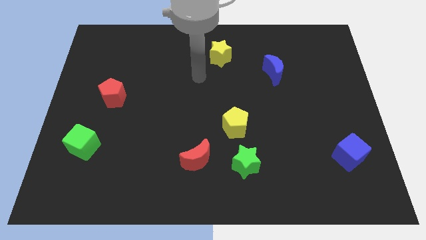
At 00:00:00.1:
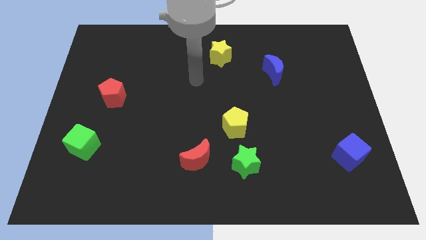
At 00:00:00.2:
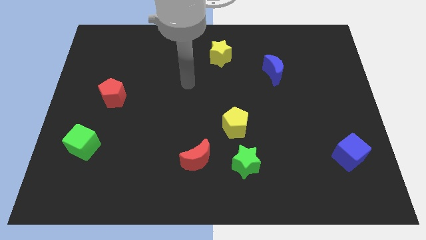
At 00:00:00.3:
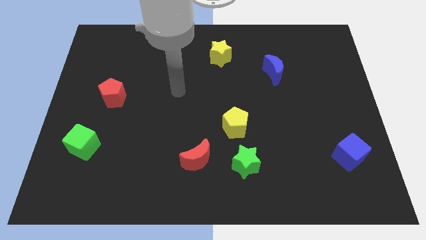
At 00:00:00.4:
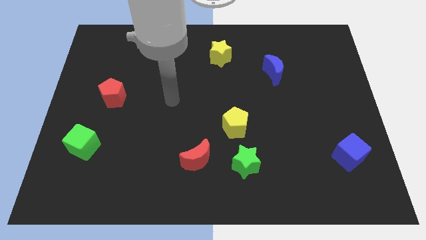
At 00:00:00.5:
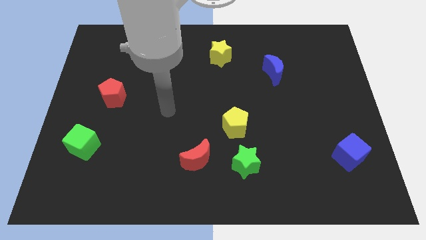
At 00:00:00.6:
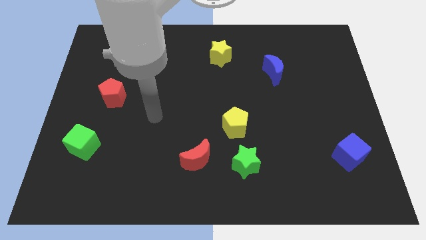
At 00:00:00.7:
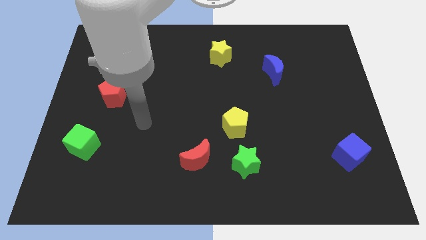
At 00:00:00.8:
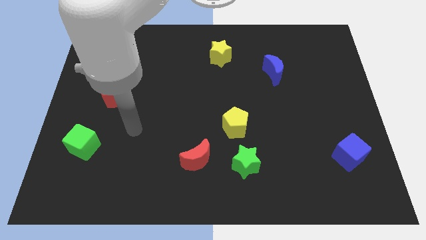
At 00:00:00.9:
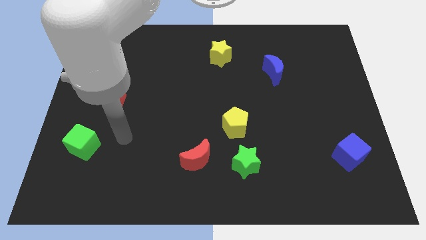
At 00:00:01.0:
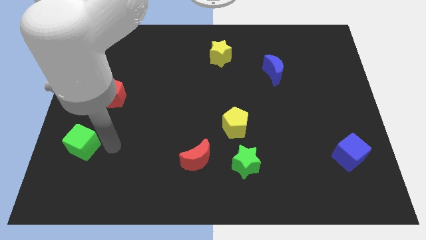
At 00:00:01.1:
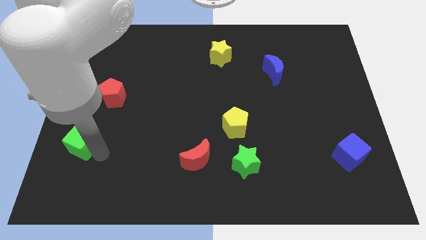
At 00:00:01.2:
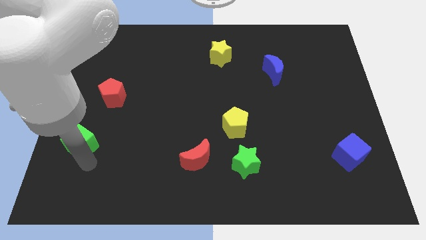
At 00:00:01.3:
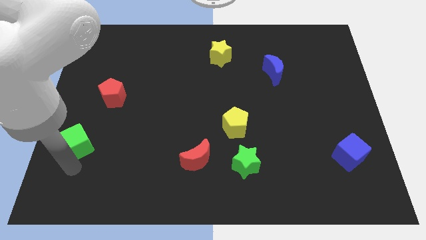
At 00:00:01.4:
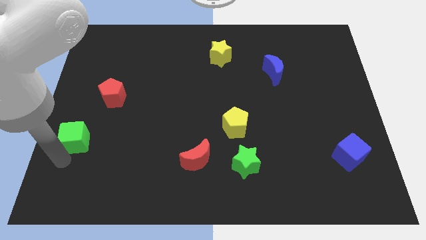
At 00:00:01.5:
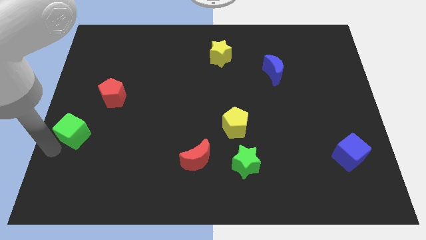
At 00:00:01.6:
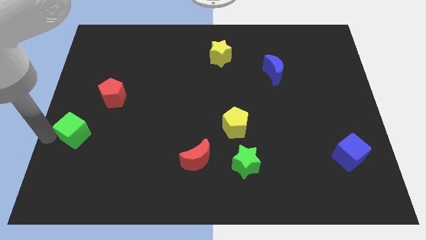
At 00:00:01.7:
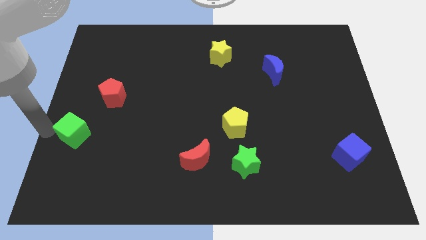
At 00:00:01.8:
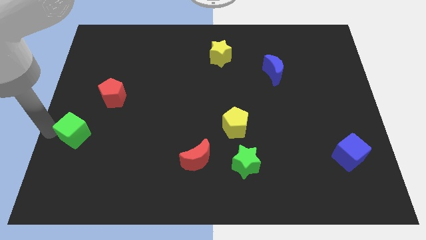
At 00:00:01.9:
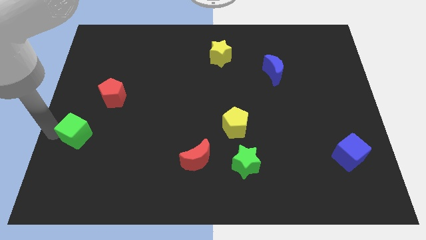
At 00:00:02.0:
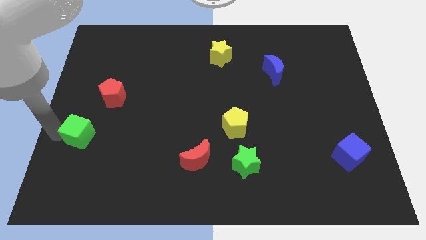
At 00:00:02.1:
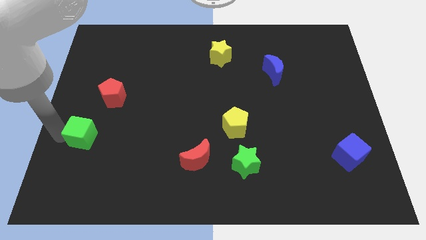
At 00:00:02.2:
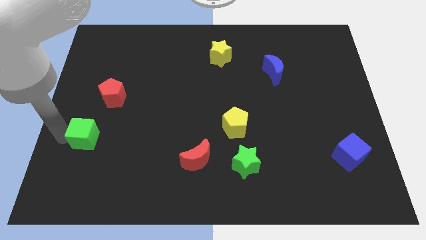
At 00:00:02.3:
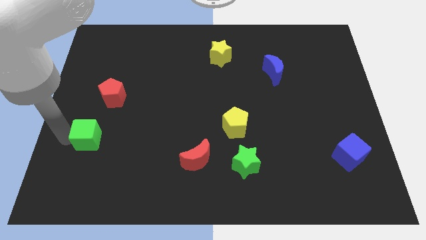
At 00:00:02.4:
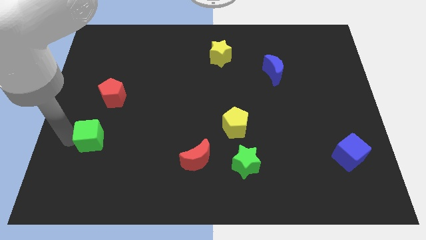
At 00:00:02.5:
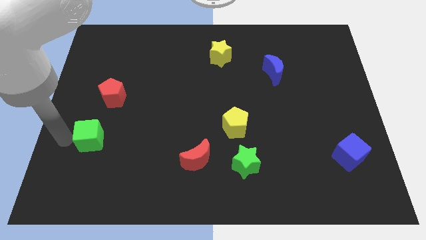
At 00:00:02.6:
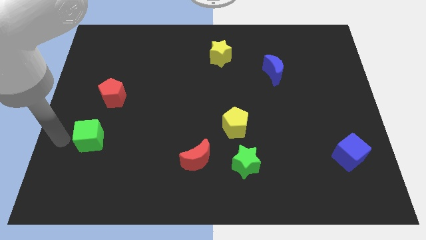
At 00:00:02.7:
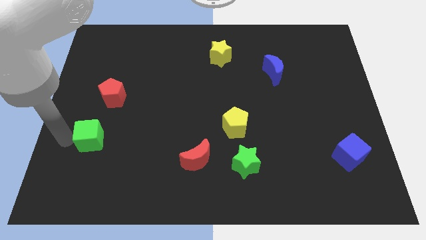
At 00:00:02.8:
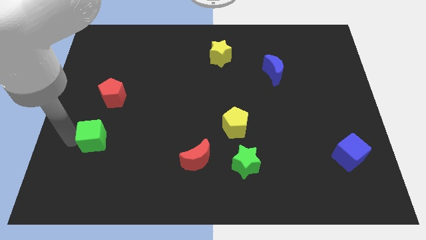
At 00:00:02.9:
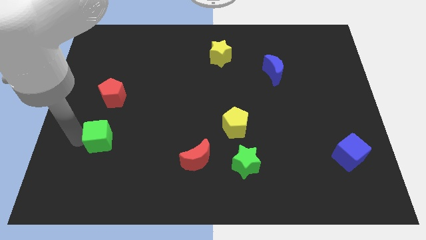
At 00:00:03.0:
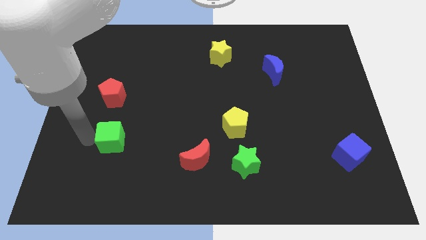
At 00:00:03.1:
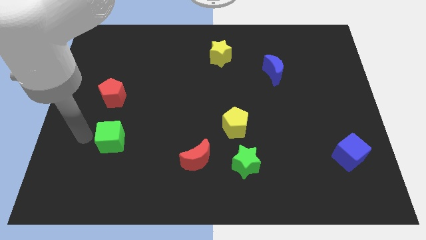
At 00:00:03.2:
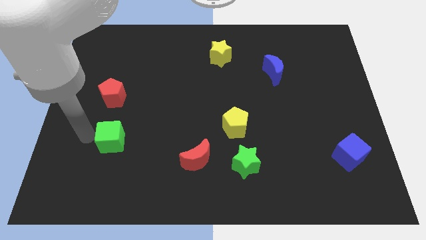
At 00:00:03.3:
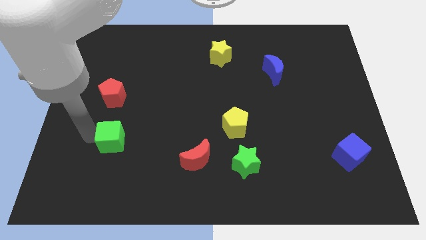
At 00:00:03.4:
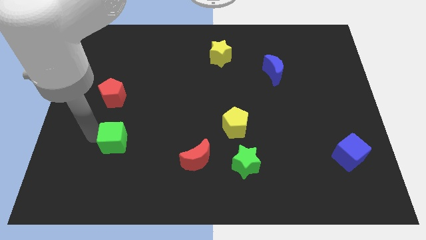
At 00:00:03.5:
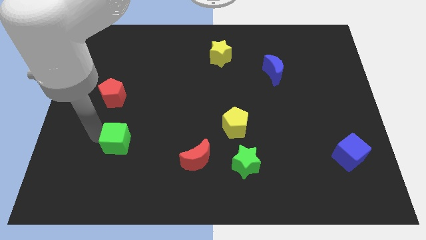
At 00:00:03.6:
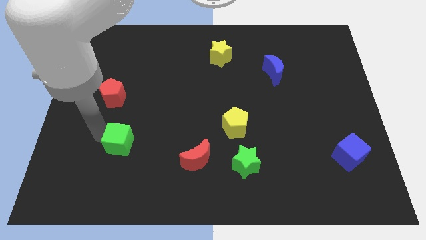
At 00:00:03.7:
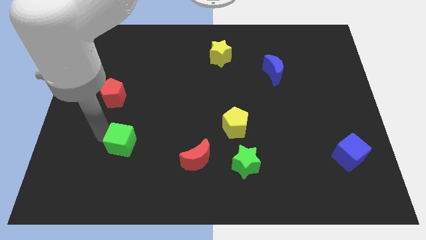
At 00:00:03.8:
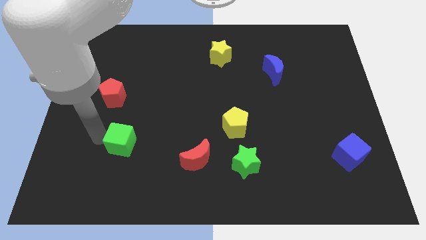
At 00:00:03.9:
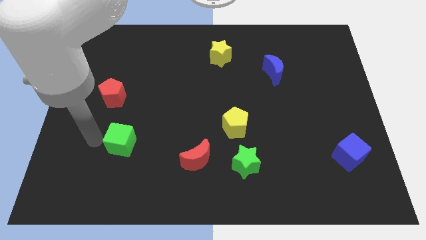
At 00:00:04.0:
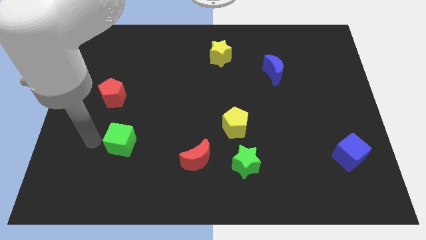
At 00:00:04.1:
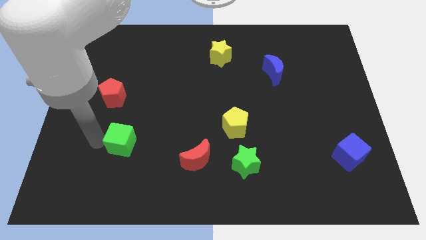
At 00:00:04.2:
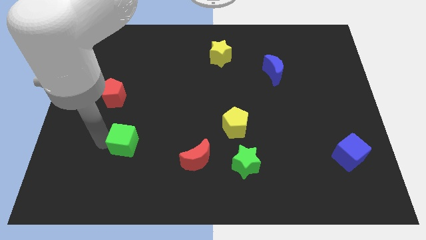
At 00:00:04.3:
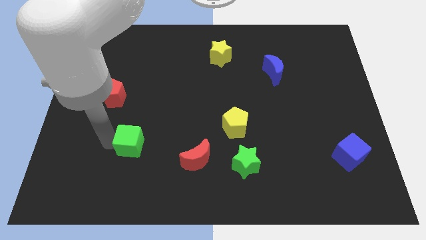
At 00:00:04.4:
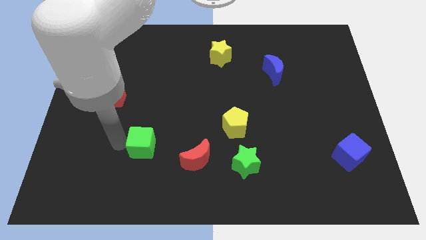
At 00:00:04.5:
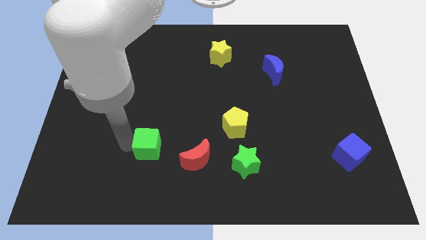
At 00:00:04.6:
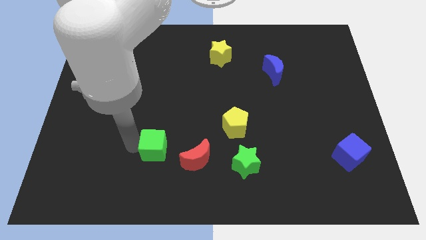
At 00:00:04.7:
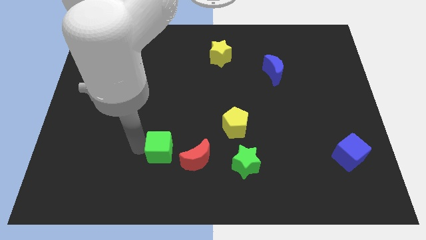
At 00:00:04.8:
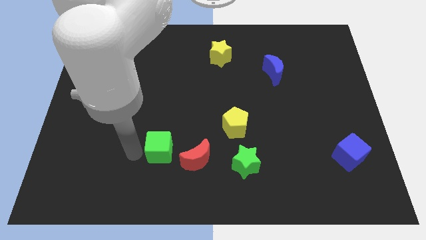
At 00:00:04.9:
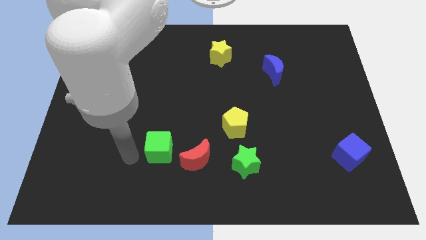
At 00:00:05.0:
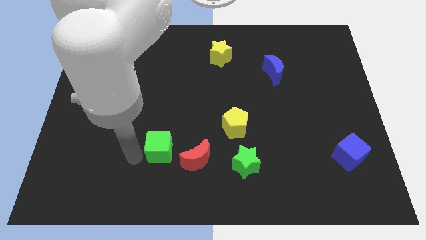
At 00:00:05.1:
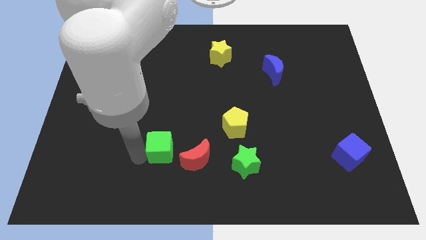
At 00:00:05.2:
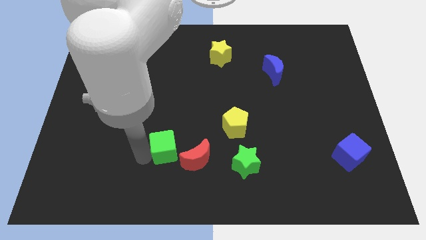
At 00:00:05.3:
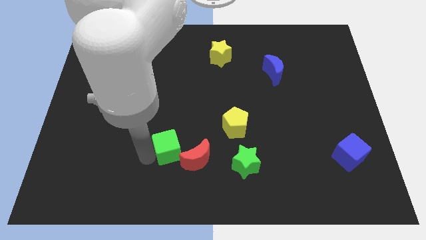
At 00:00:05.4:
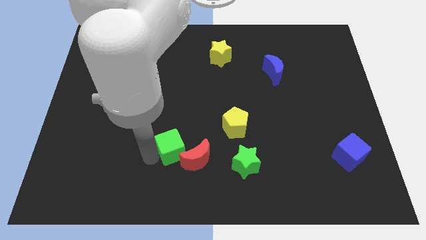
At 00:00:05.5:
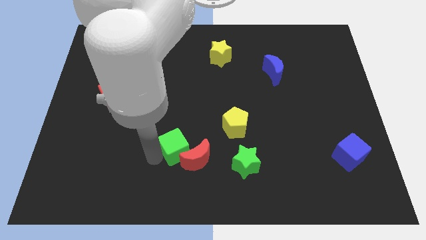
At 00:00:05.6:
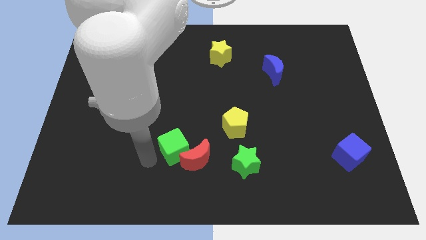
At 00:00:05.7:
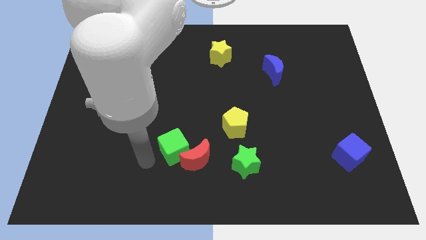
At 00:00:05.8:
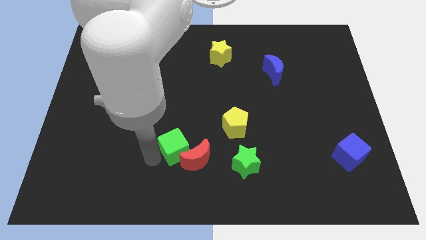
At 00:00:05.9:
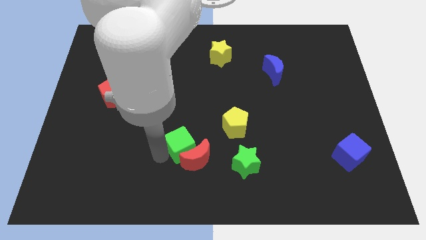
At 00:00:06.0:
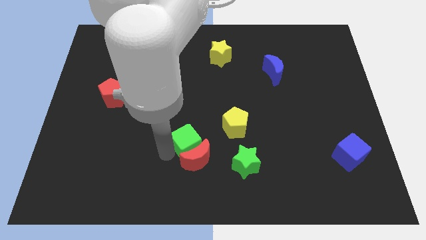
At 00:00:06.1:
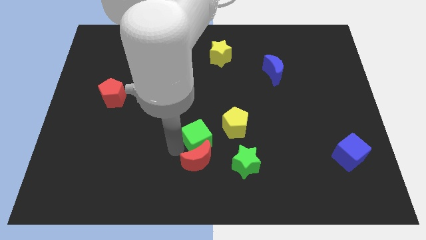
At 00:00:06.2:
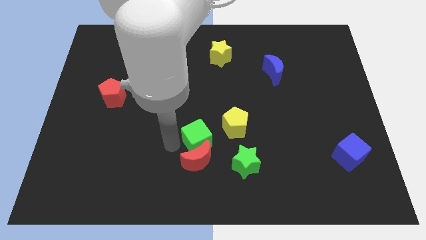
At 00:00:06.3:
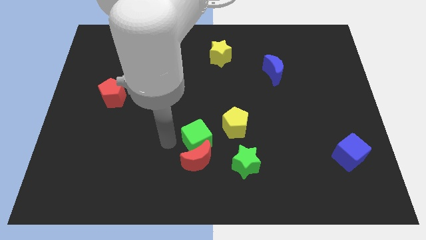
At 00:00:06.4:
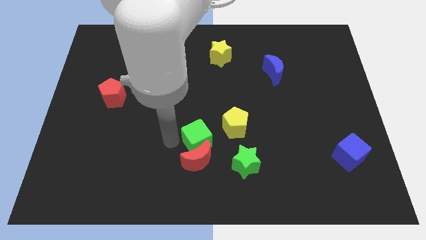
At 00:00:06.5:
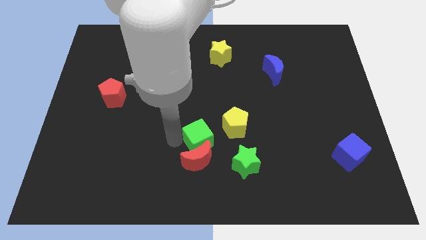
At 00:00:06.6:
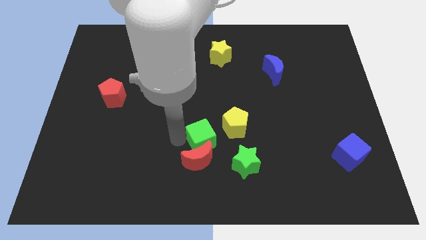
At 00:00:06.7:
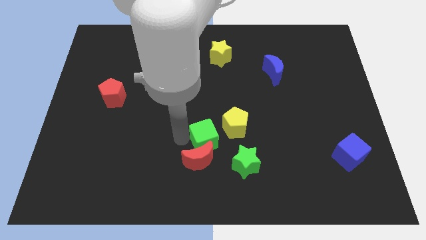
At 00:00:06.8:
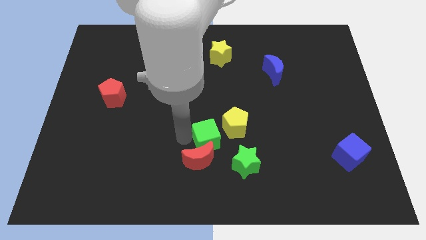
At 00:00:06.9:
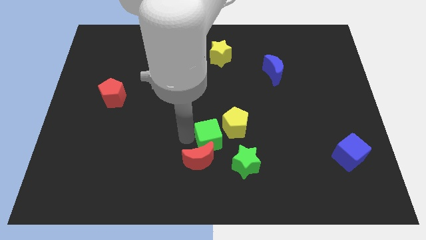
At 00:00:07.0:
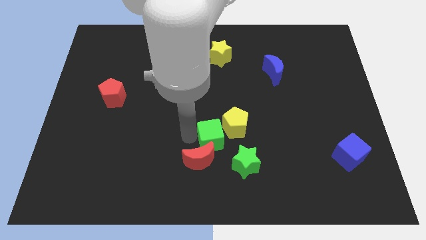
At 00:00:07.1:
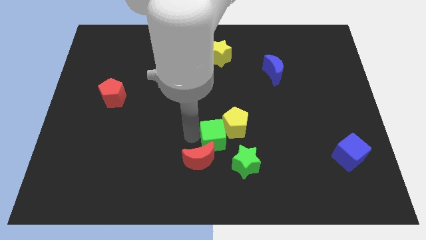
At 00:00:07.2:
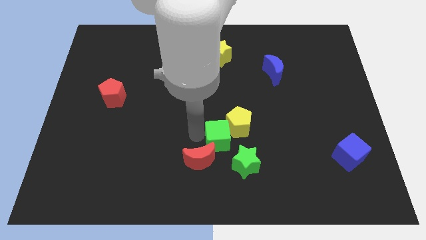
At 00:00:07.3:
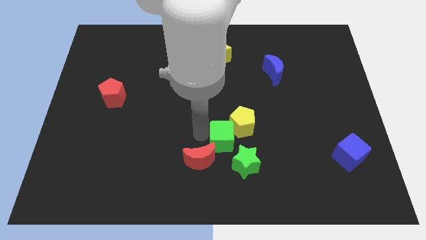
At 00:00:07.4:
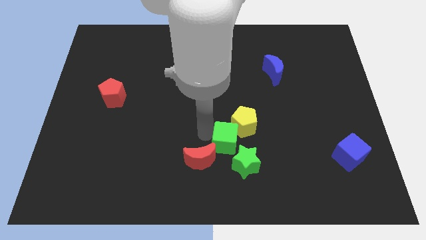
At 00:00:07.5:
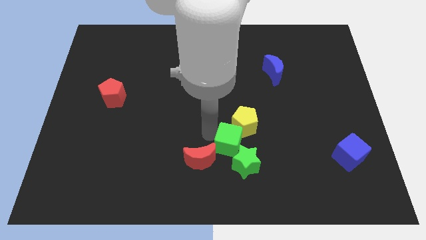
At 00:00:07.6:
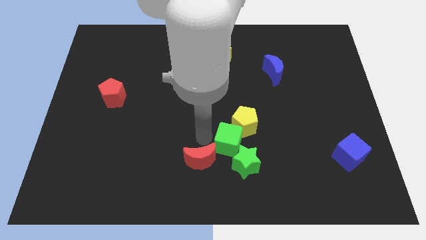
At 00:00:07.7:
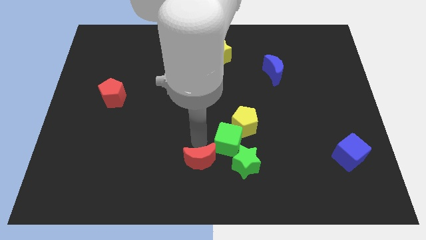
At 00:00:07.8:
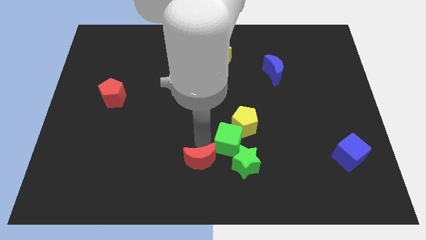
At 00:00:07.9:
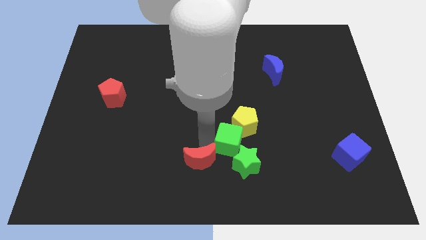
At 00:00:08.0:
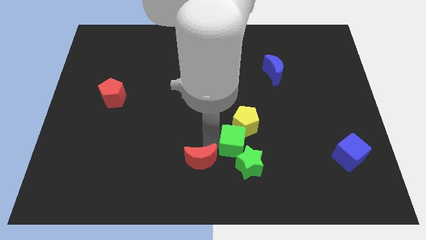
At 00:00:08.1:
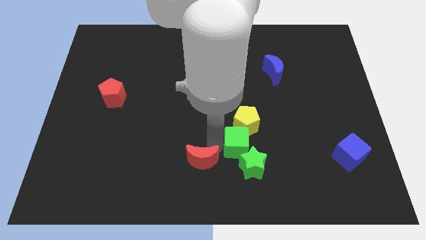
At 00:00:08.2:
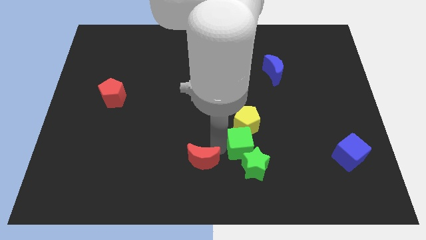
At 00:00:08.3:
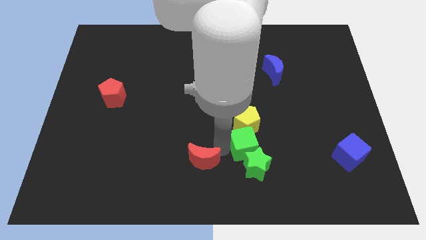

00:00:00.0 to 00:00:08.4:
slide the green cube diagonally down and to the right of the yellow pentagon
